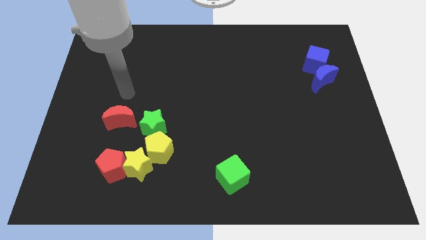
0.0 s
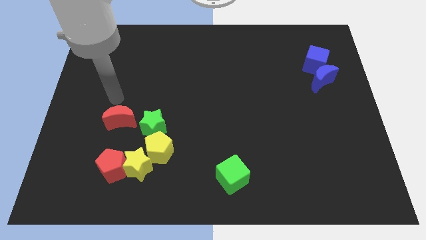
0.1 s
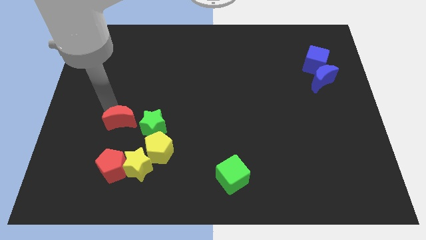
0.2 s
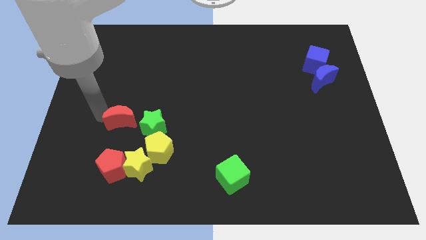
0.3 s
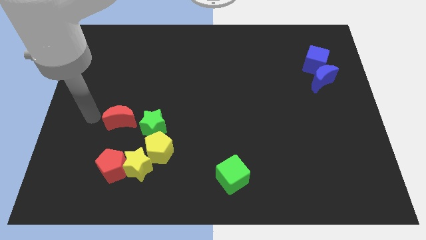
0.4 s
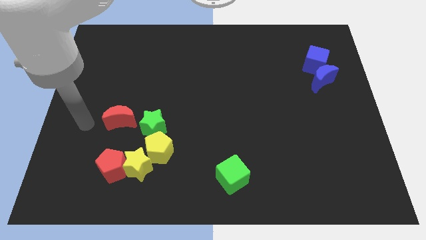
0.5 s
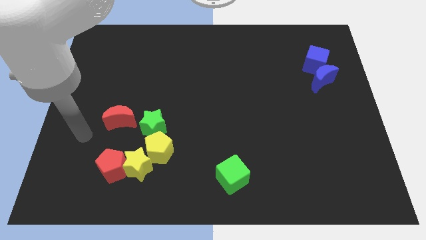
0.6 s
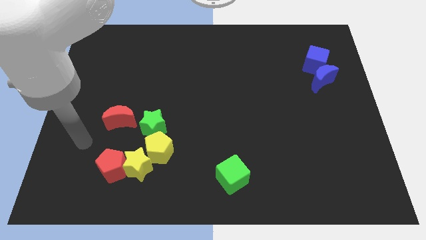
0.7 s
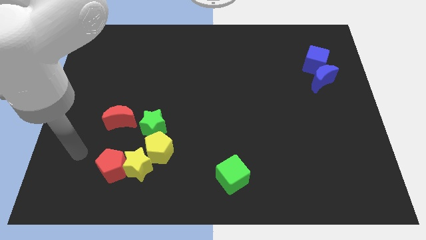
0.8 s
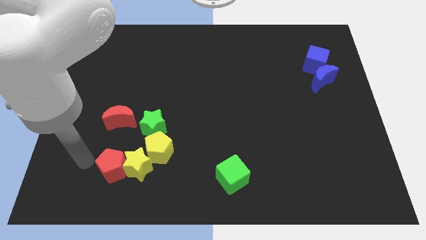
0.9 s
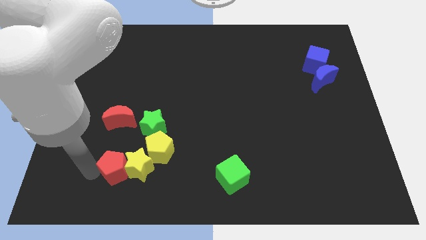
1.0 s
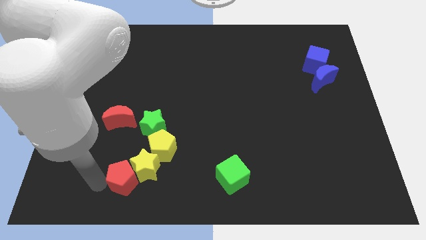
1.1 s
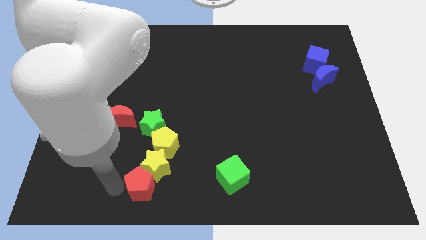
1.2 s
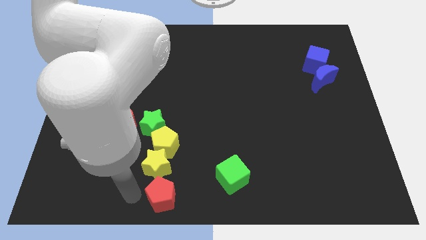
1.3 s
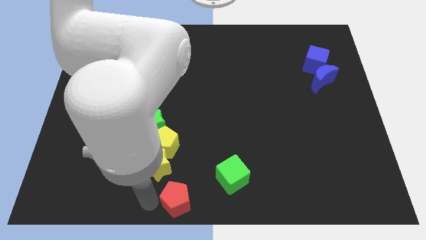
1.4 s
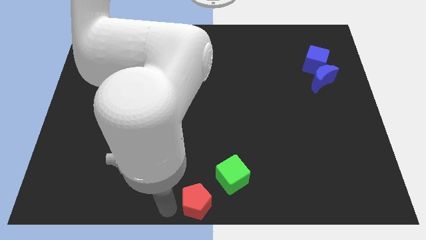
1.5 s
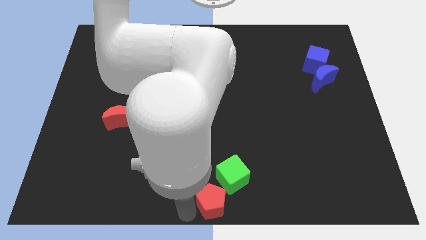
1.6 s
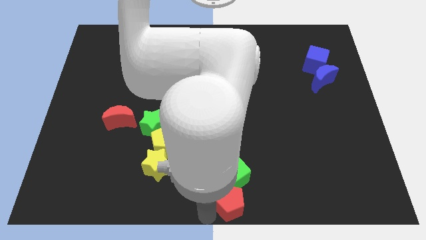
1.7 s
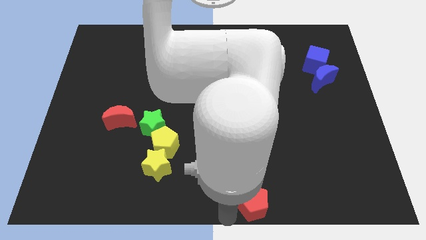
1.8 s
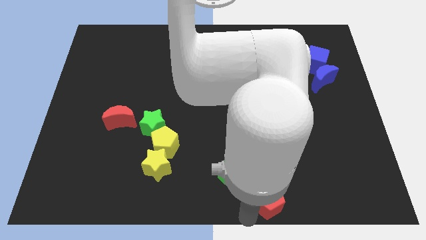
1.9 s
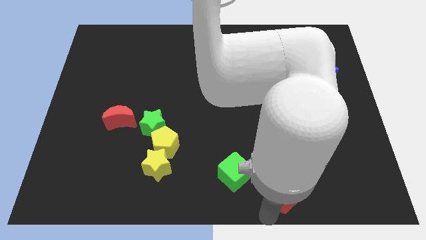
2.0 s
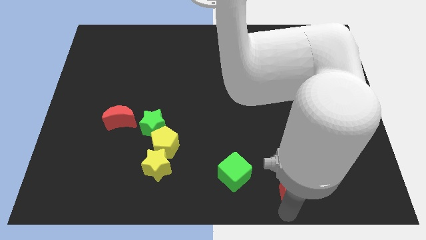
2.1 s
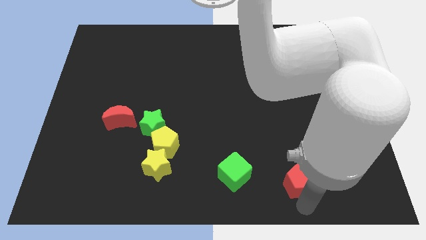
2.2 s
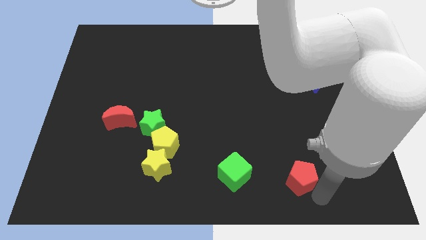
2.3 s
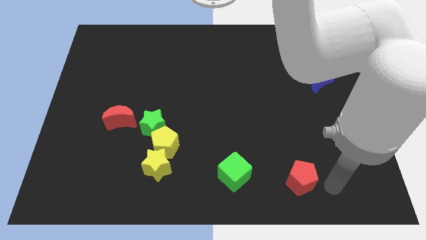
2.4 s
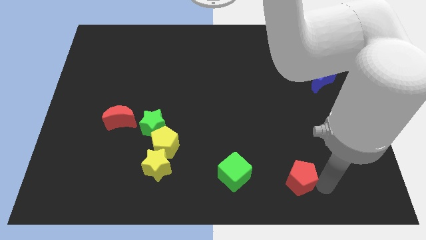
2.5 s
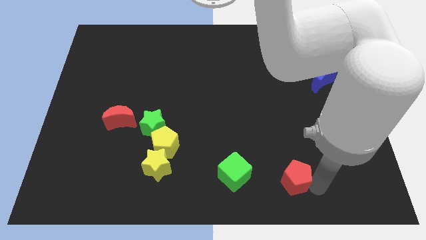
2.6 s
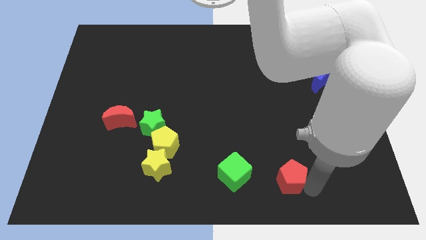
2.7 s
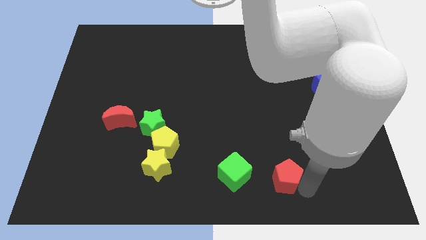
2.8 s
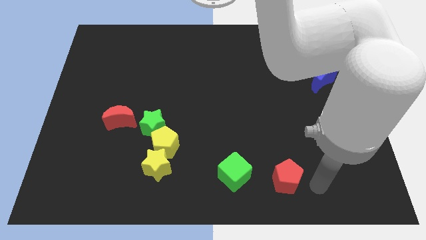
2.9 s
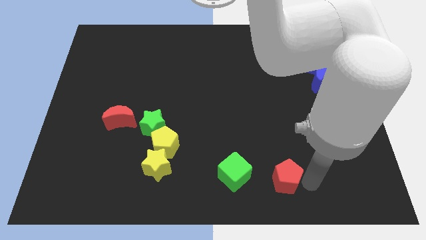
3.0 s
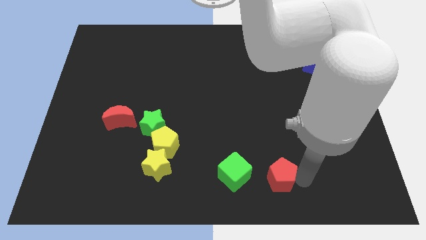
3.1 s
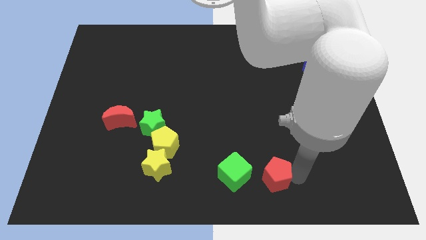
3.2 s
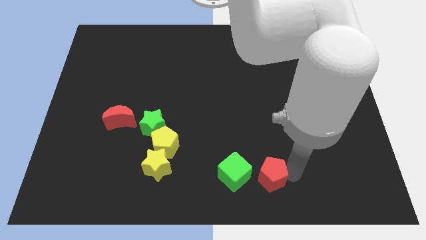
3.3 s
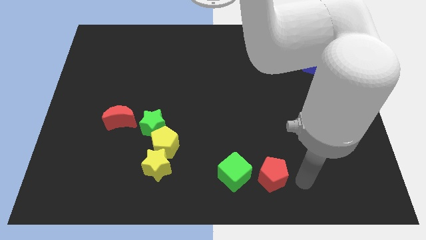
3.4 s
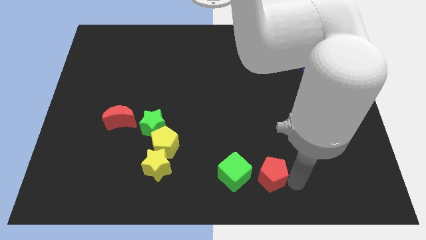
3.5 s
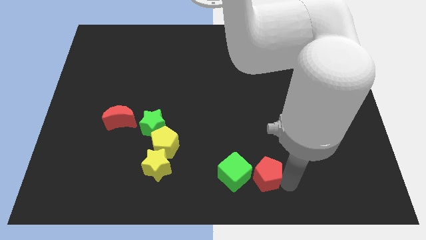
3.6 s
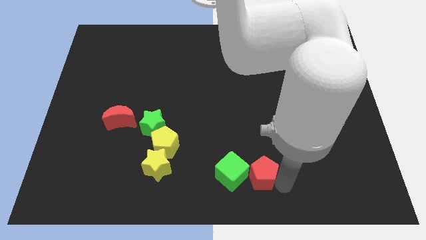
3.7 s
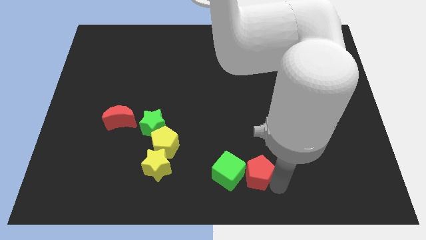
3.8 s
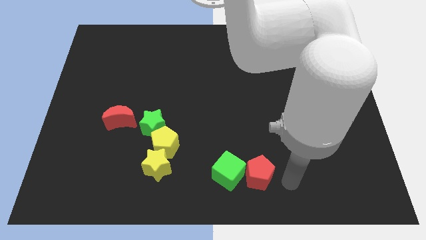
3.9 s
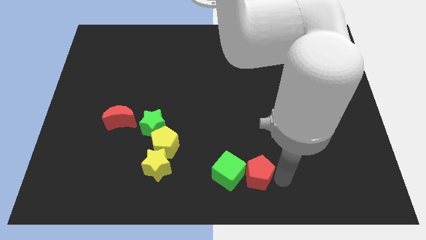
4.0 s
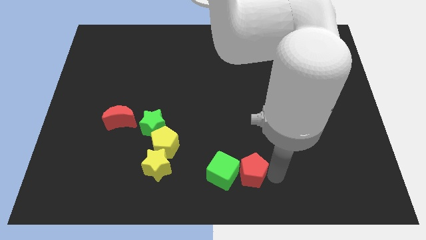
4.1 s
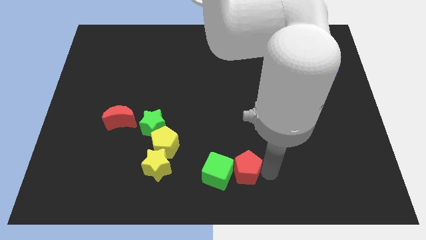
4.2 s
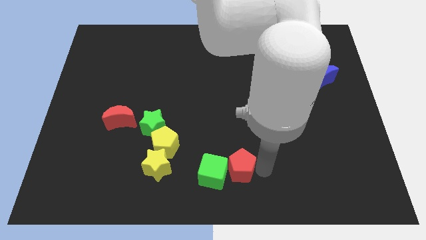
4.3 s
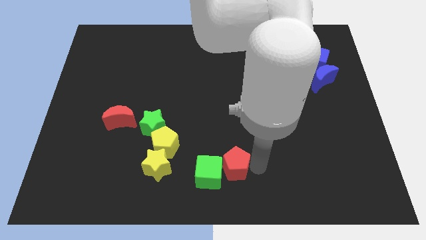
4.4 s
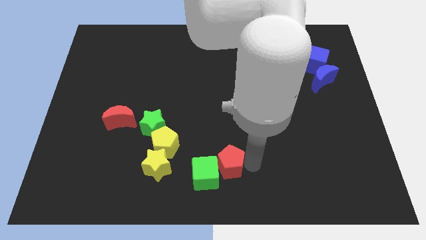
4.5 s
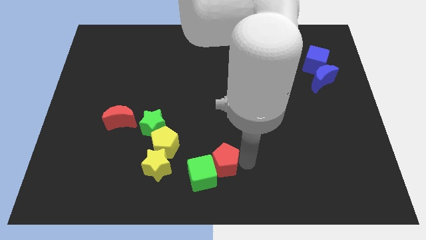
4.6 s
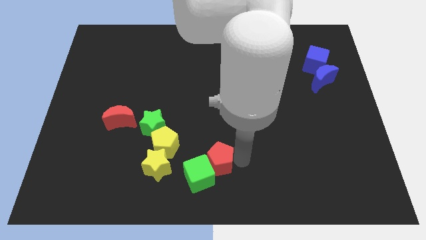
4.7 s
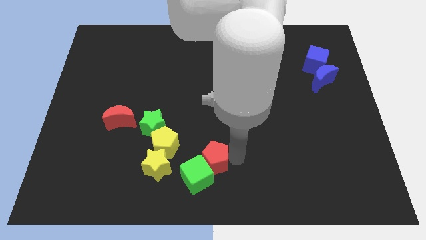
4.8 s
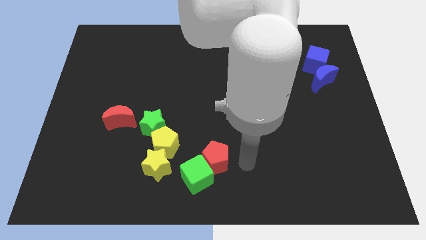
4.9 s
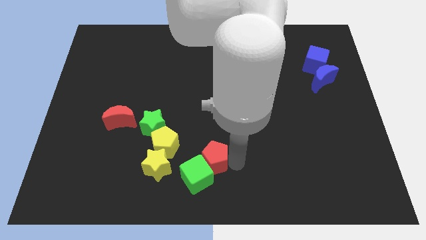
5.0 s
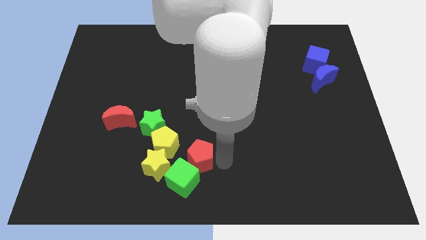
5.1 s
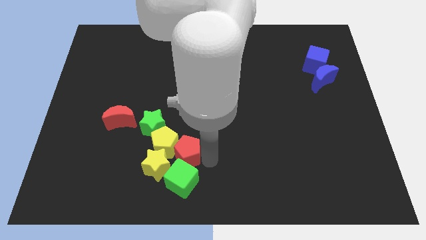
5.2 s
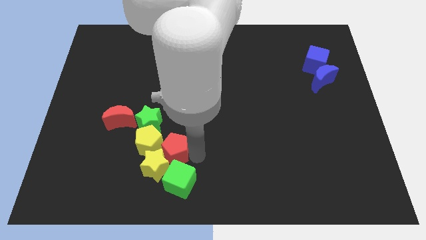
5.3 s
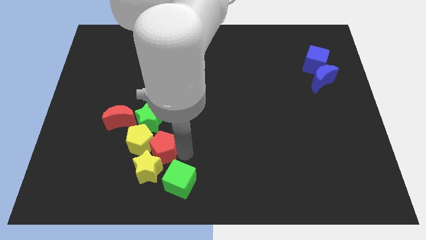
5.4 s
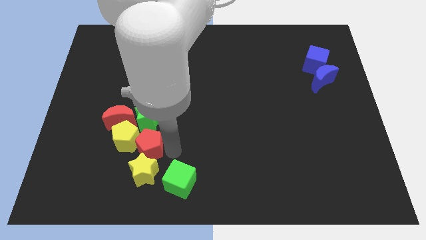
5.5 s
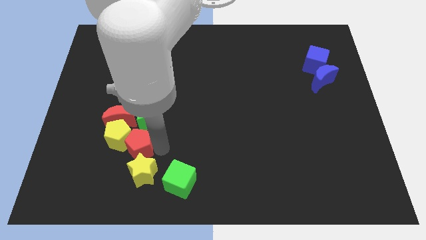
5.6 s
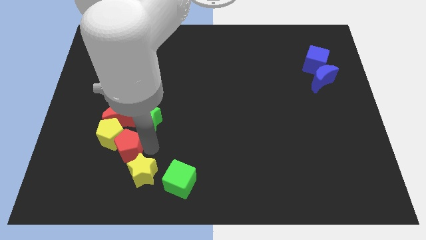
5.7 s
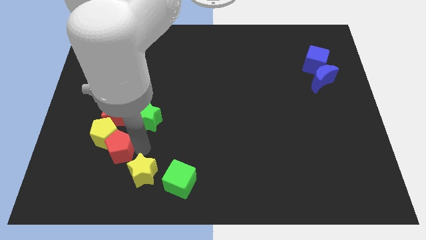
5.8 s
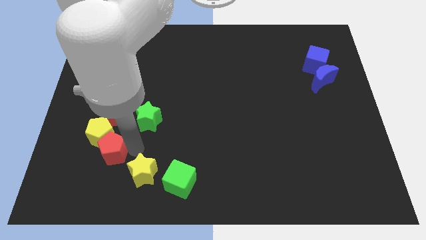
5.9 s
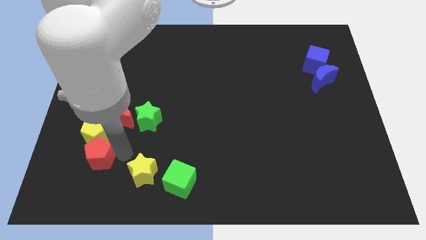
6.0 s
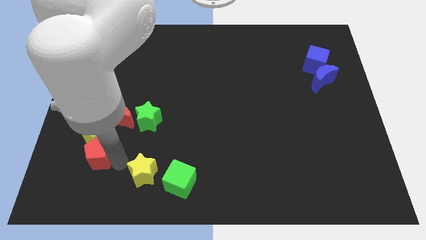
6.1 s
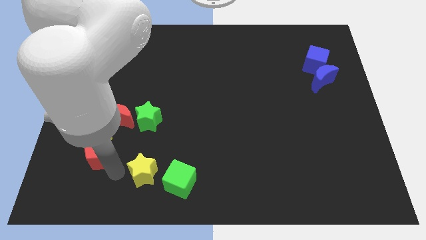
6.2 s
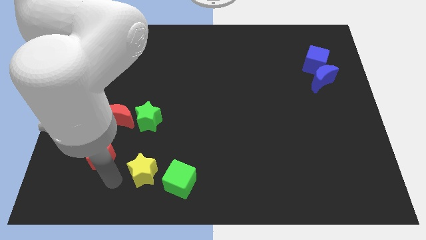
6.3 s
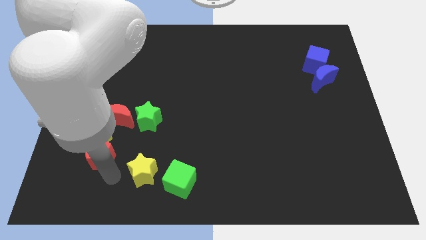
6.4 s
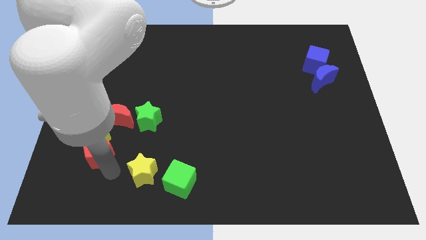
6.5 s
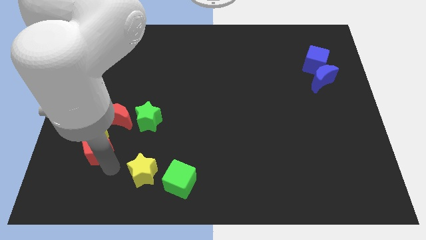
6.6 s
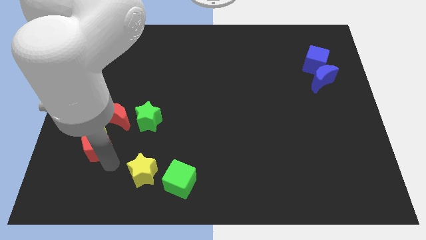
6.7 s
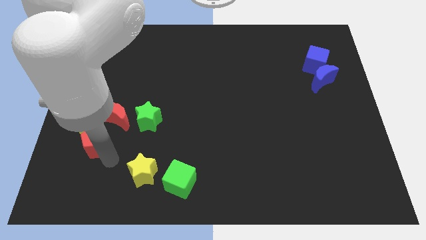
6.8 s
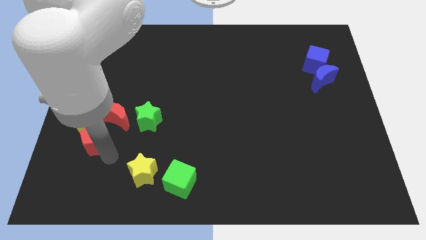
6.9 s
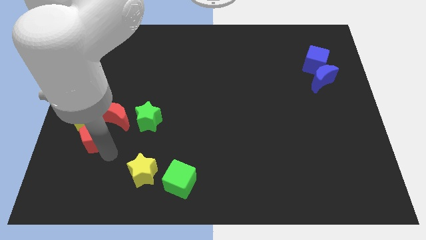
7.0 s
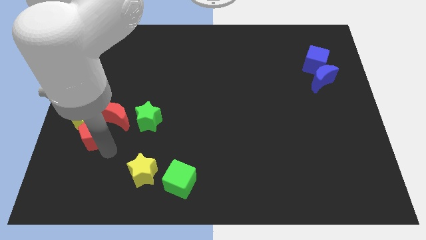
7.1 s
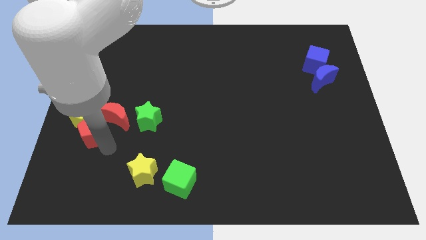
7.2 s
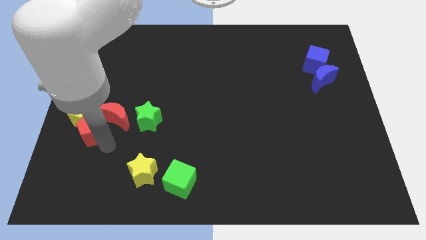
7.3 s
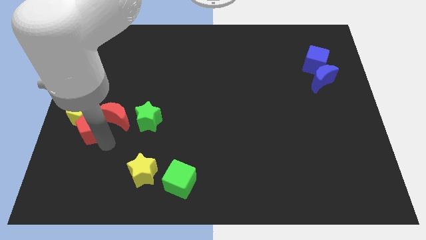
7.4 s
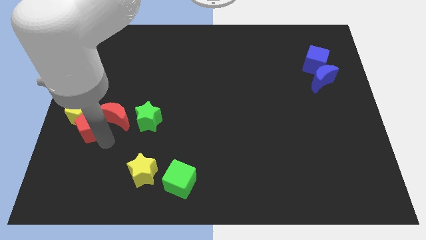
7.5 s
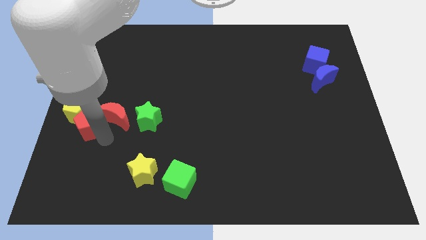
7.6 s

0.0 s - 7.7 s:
move the red pentagon to the left side of the board
